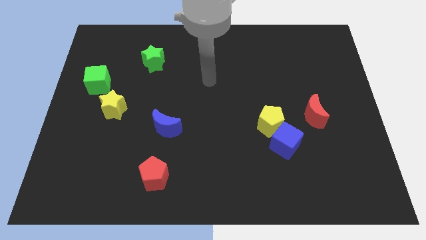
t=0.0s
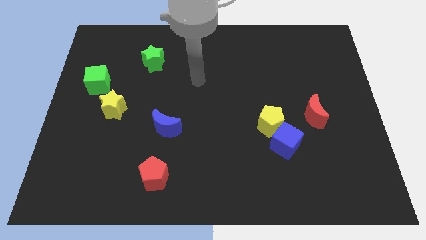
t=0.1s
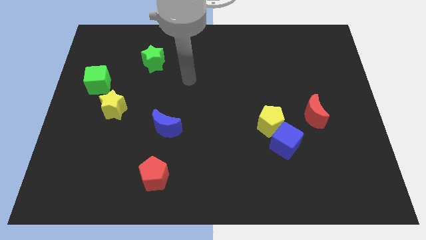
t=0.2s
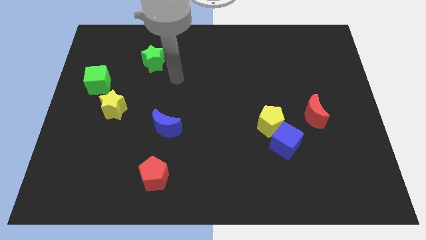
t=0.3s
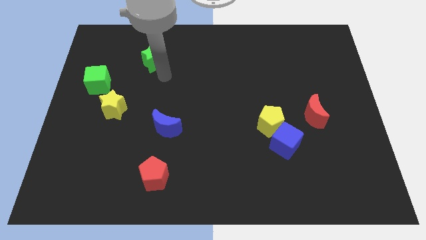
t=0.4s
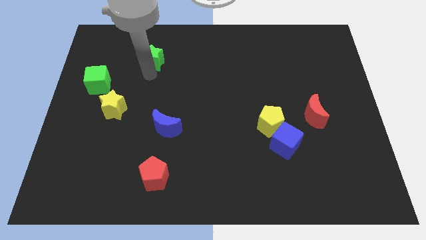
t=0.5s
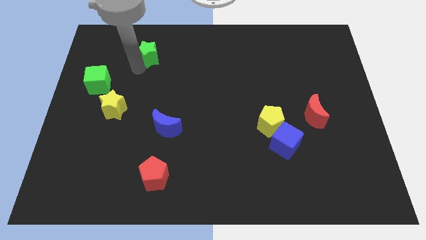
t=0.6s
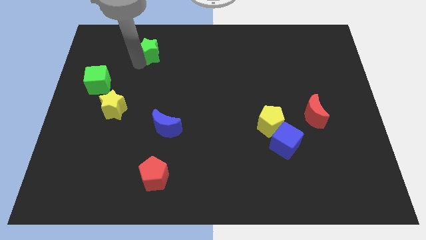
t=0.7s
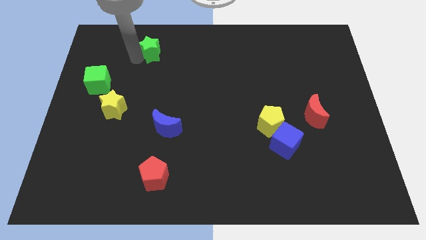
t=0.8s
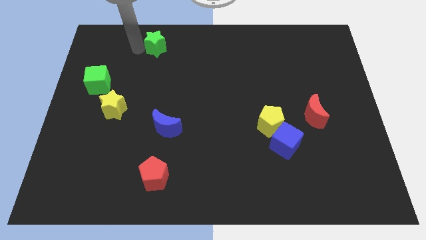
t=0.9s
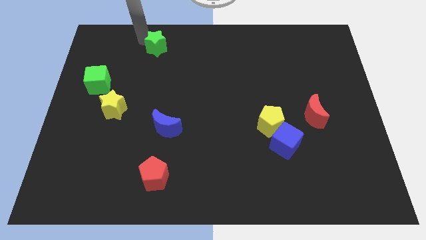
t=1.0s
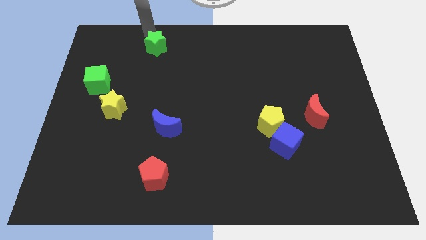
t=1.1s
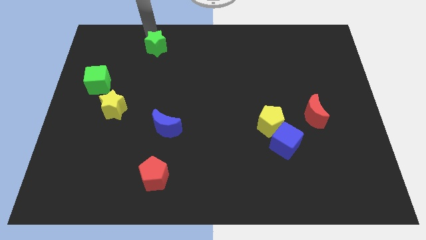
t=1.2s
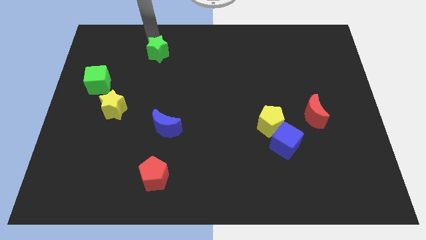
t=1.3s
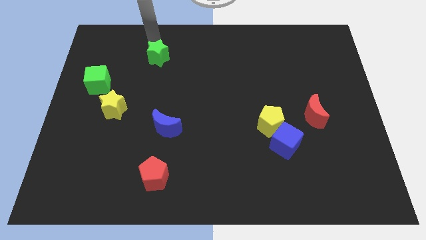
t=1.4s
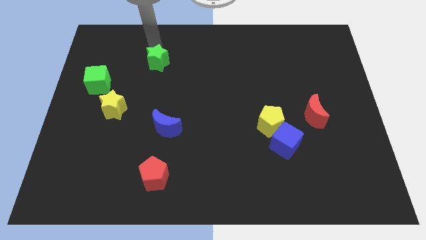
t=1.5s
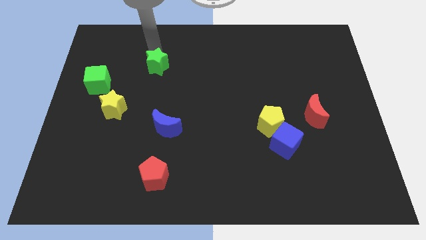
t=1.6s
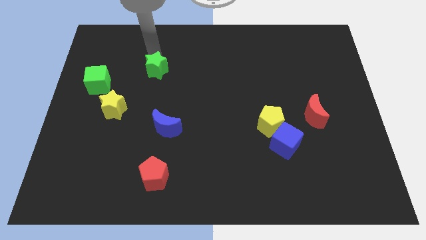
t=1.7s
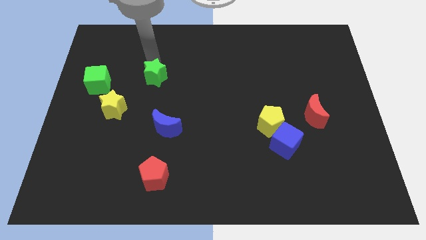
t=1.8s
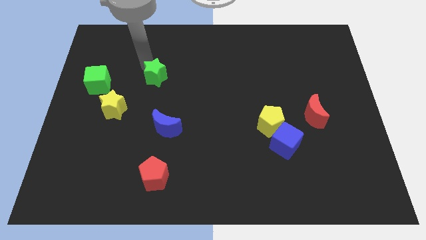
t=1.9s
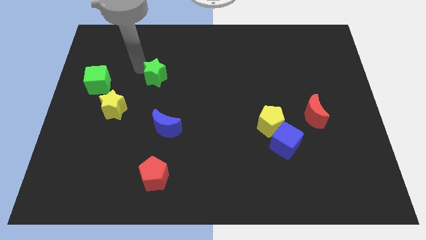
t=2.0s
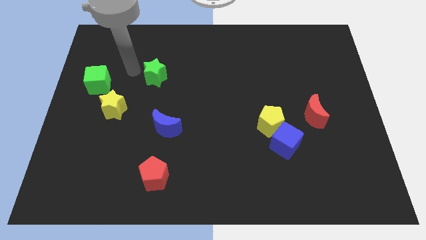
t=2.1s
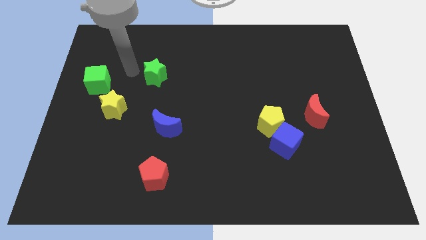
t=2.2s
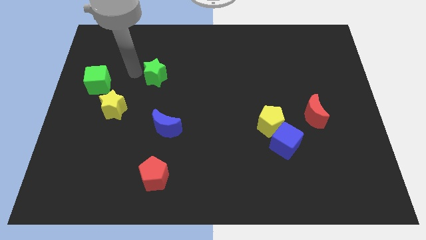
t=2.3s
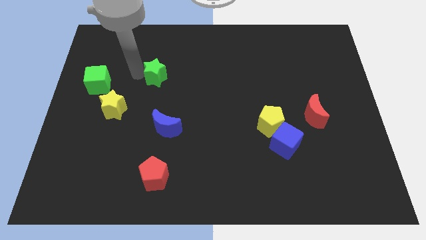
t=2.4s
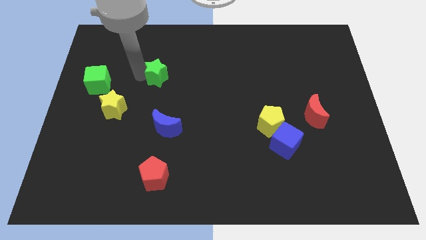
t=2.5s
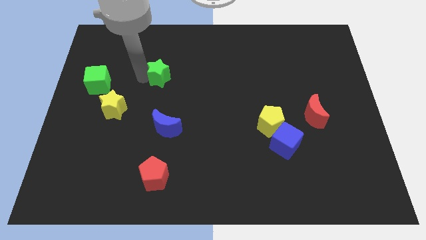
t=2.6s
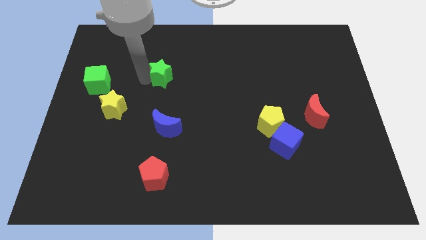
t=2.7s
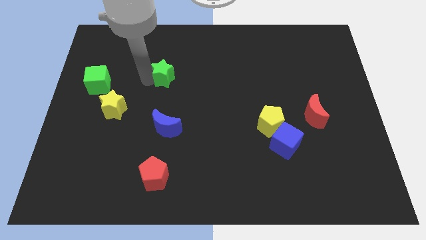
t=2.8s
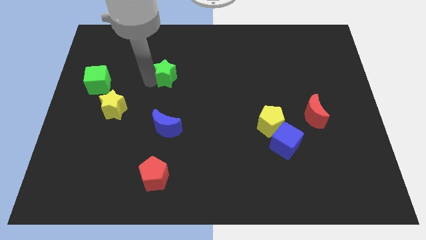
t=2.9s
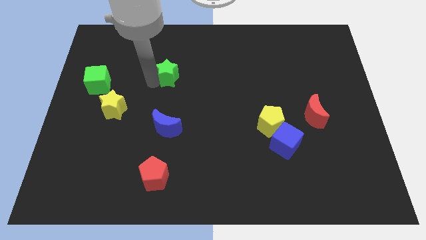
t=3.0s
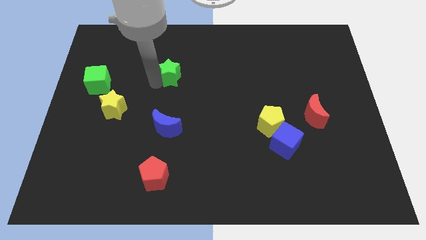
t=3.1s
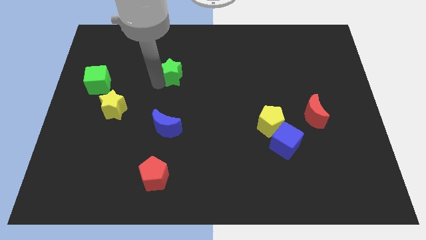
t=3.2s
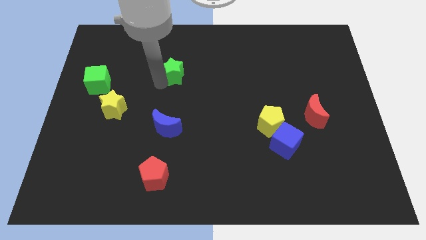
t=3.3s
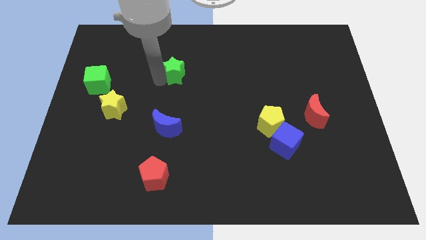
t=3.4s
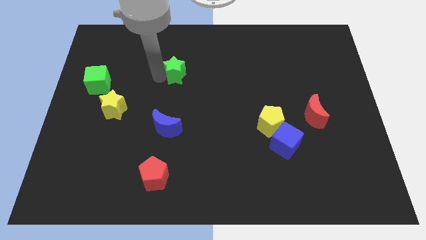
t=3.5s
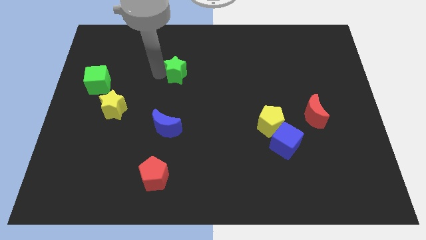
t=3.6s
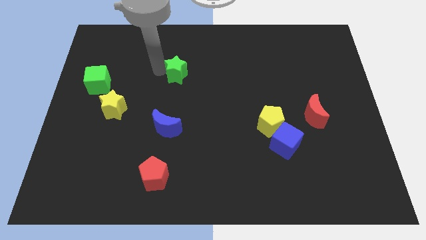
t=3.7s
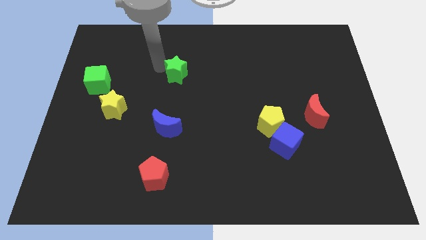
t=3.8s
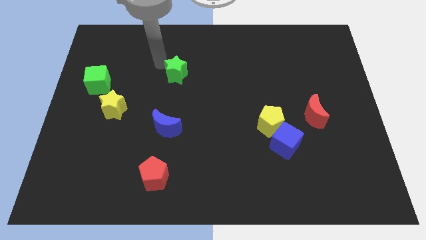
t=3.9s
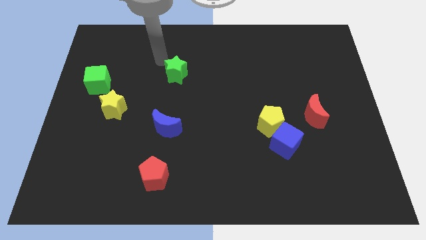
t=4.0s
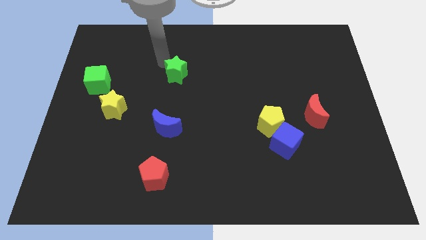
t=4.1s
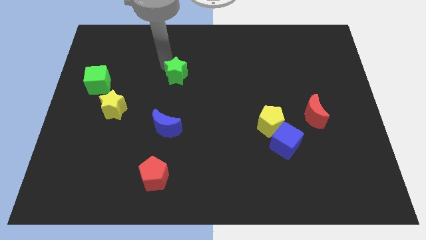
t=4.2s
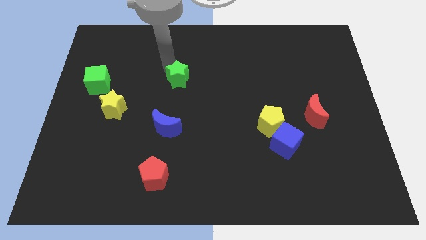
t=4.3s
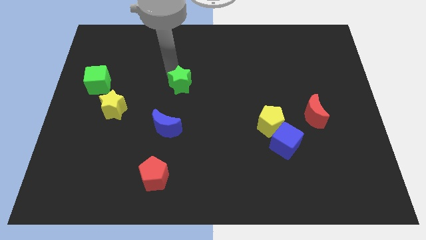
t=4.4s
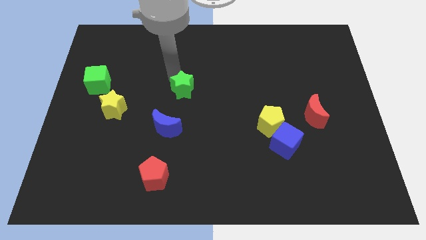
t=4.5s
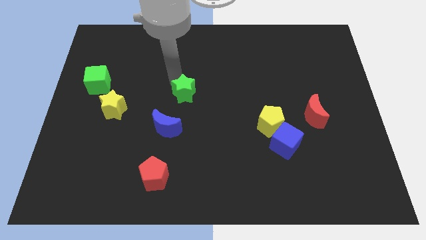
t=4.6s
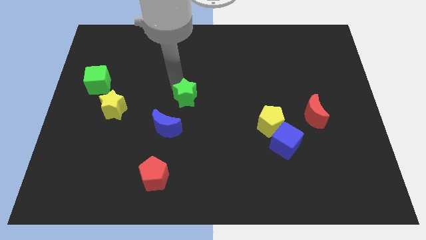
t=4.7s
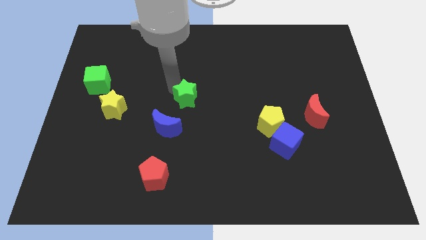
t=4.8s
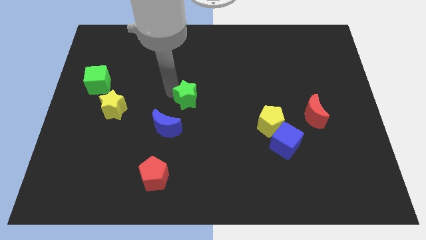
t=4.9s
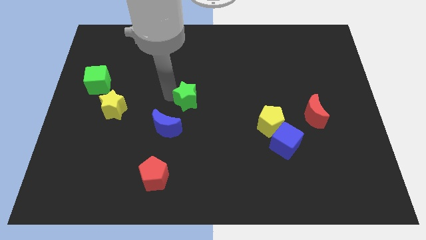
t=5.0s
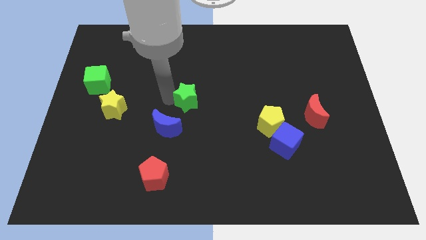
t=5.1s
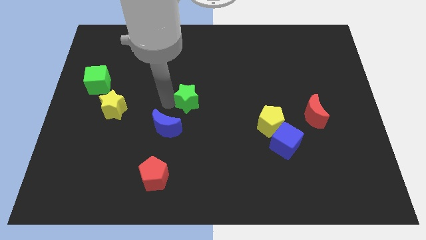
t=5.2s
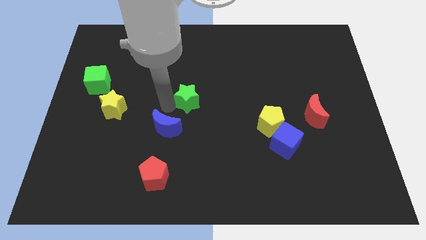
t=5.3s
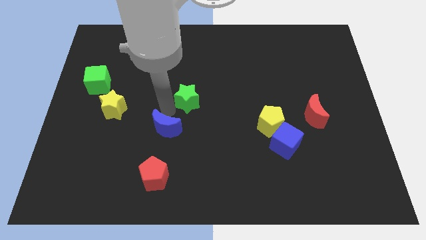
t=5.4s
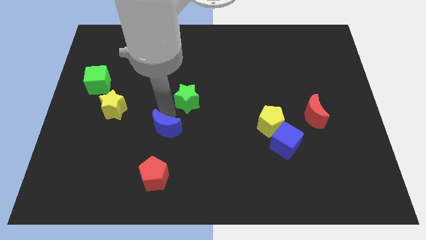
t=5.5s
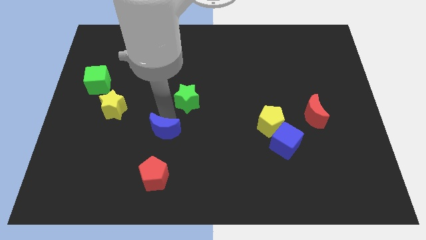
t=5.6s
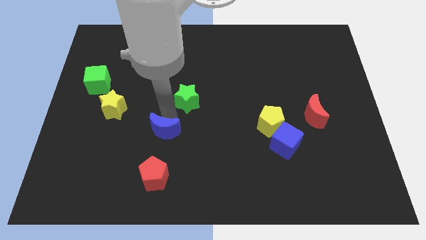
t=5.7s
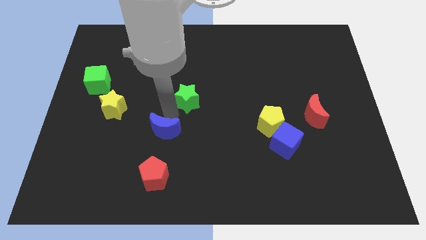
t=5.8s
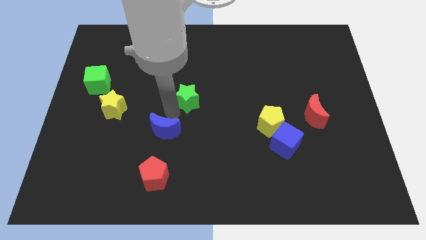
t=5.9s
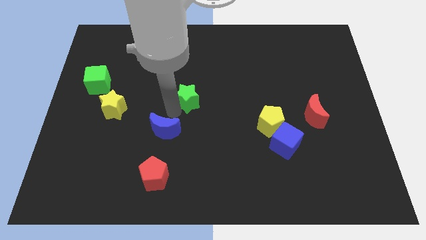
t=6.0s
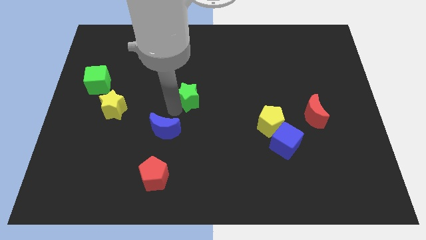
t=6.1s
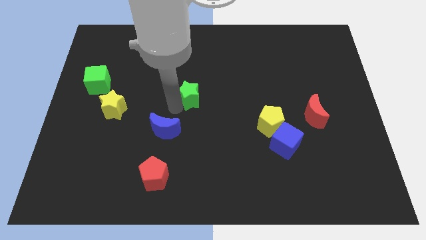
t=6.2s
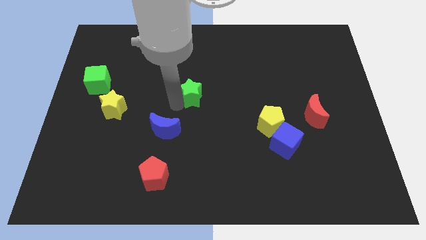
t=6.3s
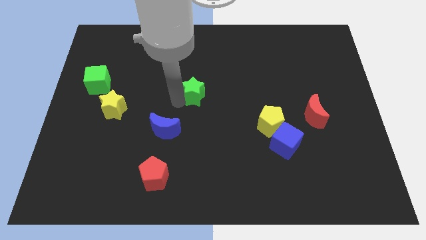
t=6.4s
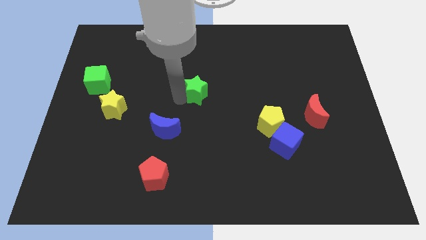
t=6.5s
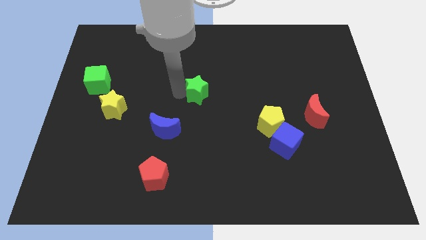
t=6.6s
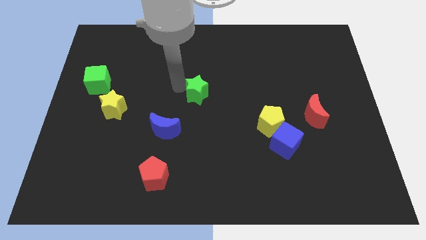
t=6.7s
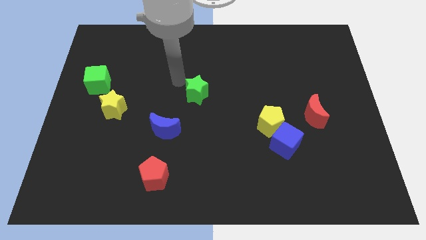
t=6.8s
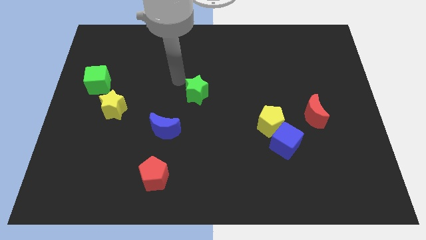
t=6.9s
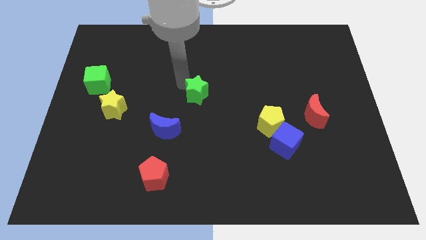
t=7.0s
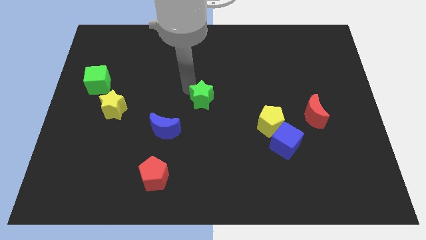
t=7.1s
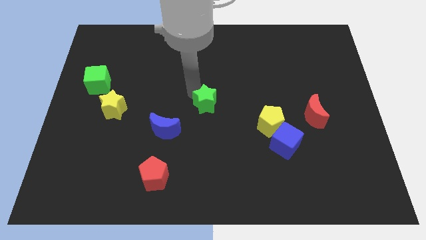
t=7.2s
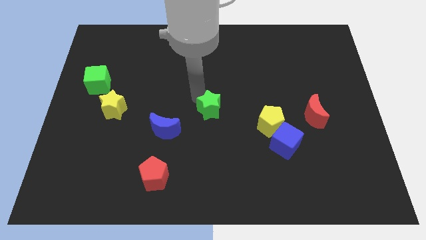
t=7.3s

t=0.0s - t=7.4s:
push the green star down and right diagonally

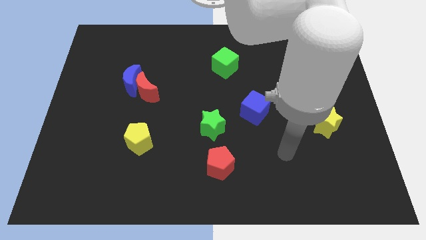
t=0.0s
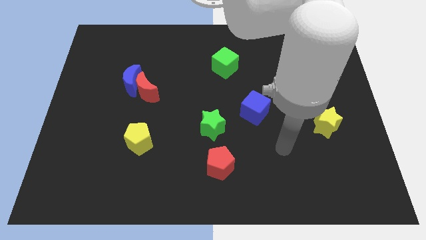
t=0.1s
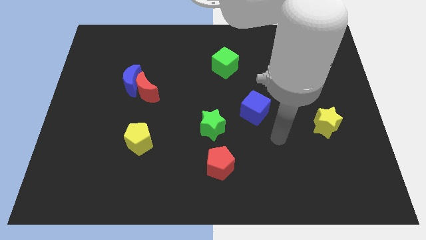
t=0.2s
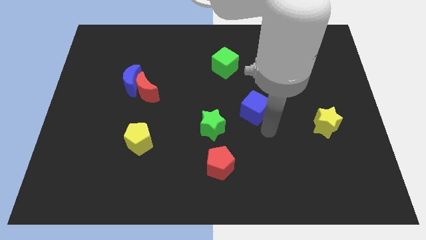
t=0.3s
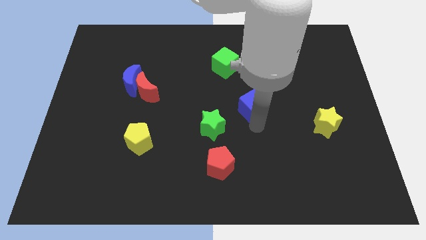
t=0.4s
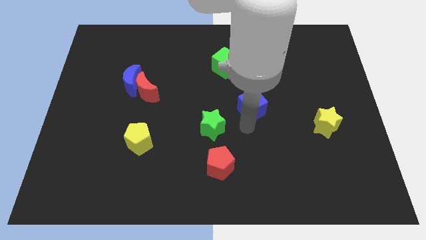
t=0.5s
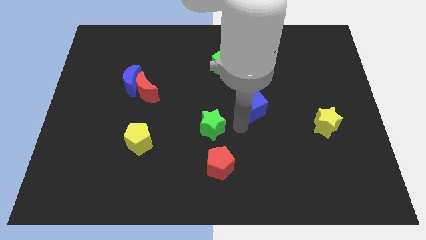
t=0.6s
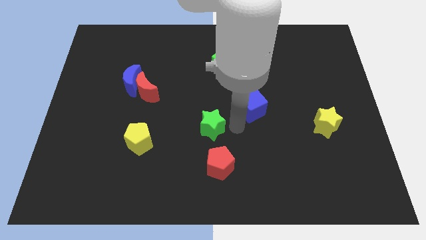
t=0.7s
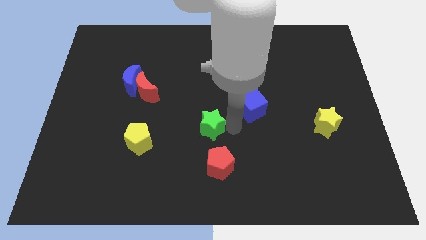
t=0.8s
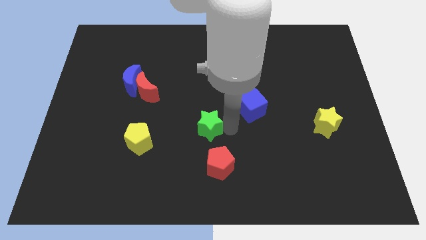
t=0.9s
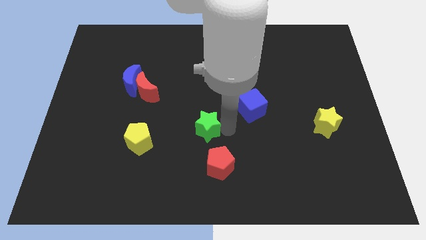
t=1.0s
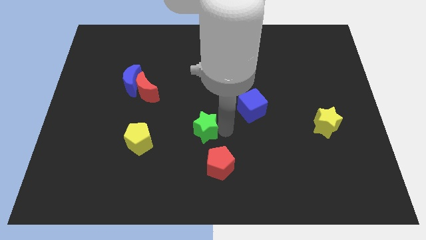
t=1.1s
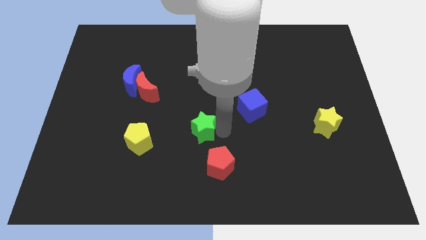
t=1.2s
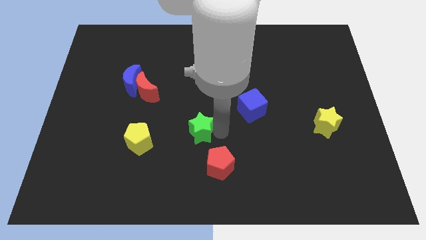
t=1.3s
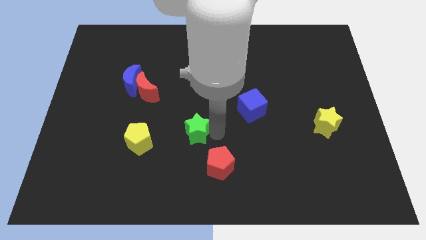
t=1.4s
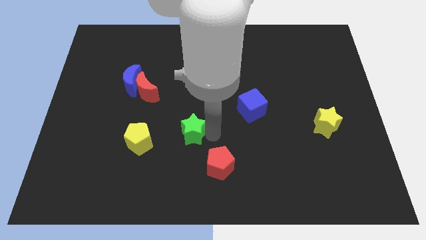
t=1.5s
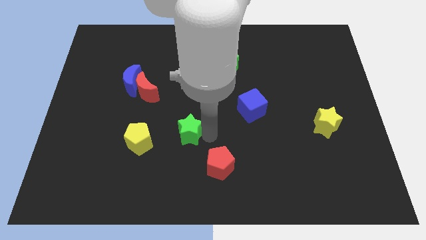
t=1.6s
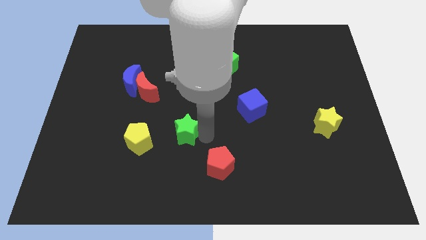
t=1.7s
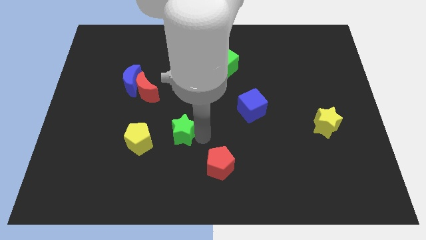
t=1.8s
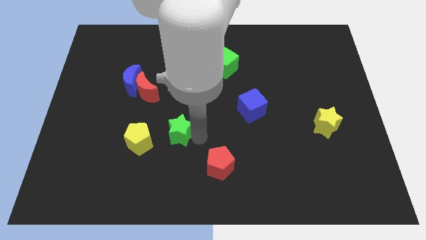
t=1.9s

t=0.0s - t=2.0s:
move the green star slightly to the left
